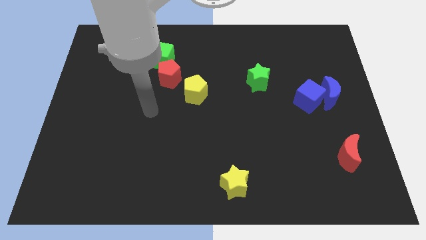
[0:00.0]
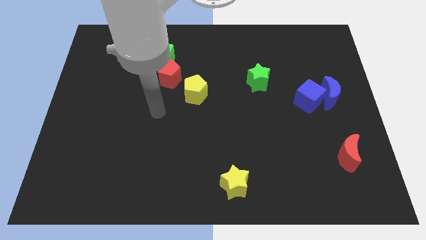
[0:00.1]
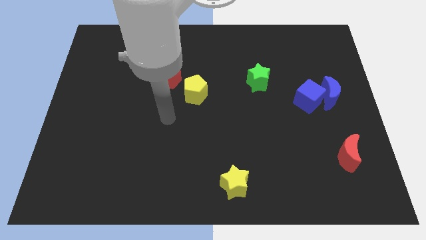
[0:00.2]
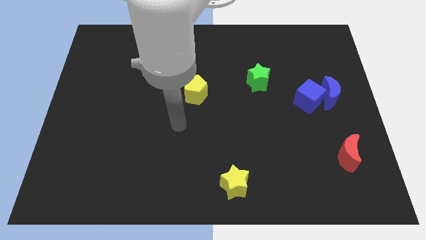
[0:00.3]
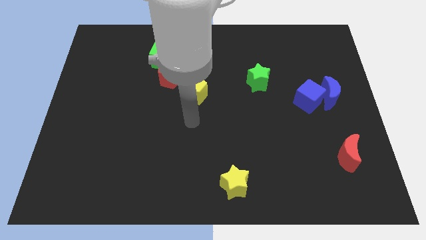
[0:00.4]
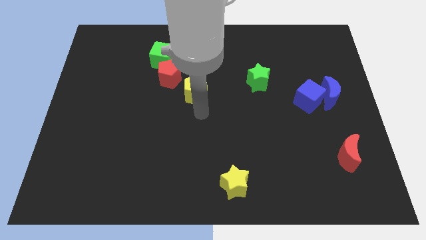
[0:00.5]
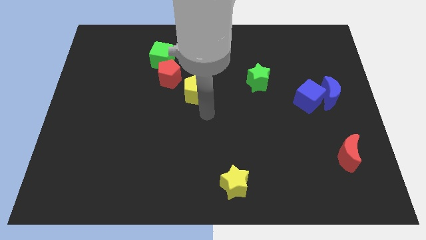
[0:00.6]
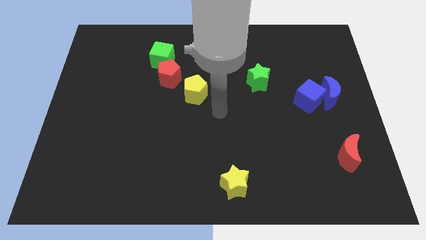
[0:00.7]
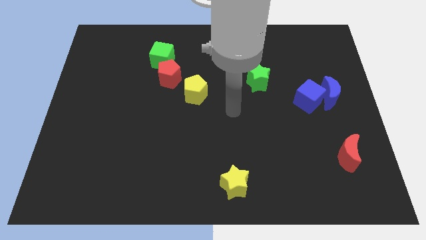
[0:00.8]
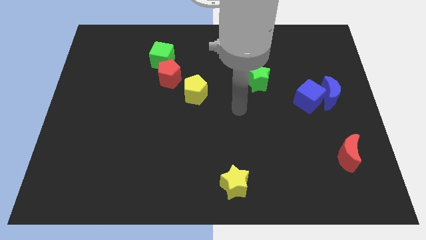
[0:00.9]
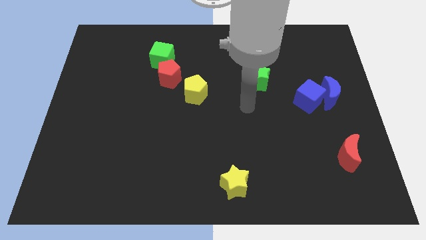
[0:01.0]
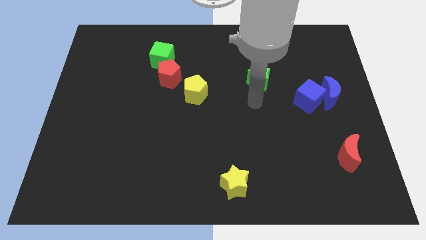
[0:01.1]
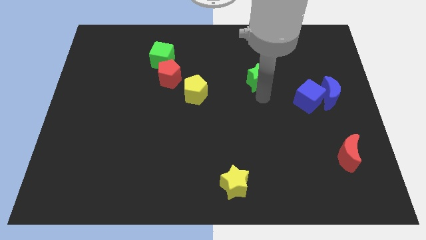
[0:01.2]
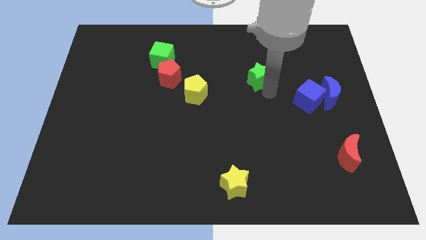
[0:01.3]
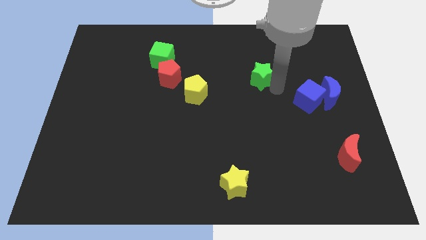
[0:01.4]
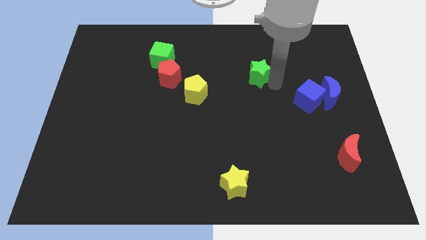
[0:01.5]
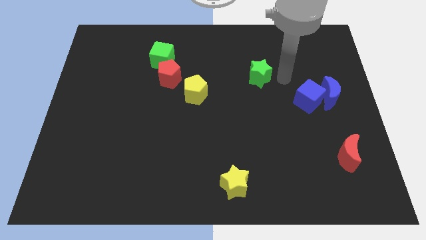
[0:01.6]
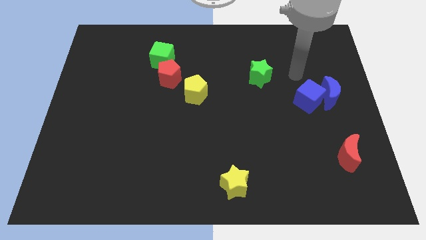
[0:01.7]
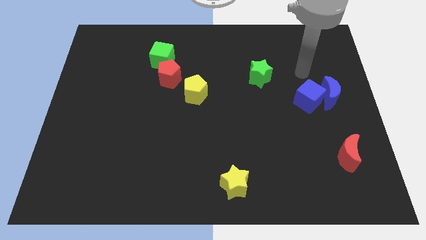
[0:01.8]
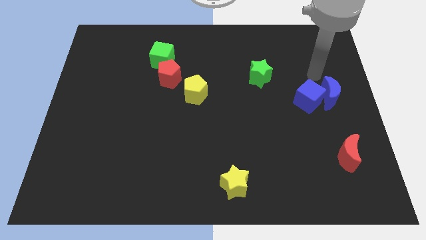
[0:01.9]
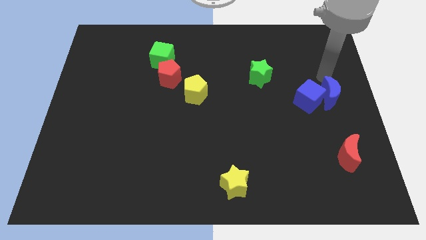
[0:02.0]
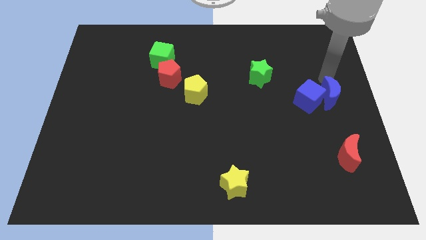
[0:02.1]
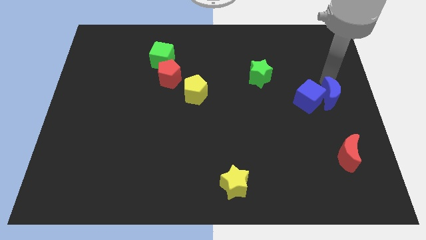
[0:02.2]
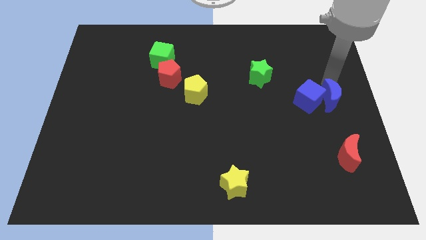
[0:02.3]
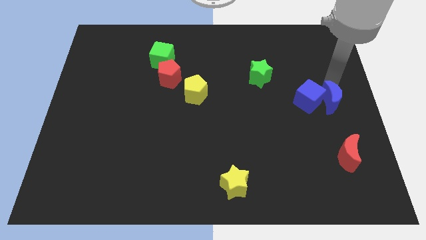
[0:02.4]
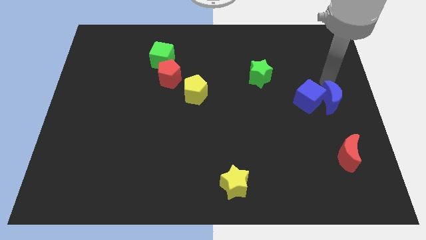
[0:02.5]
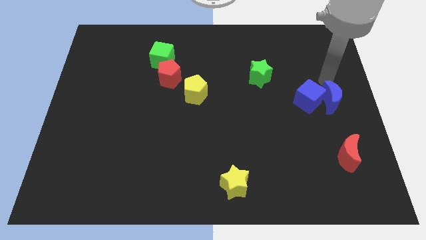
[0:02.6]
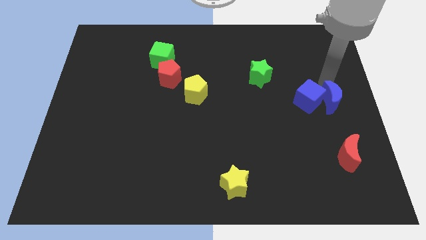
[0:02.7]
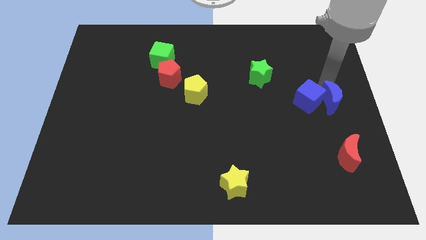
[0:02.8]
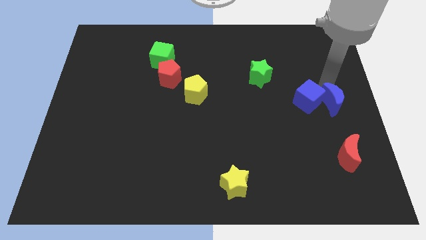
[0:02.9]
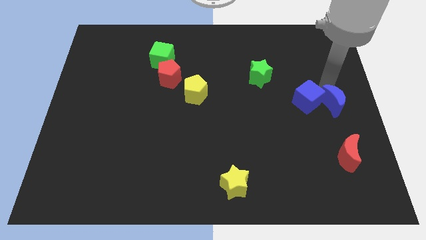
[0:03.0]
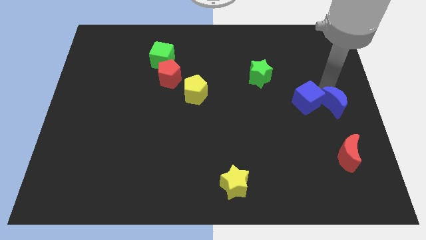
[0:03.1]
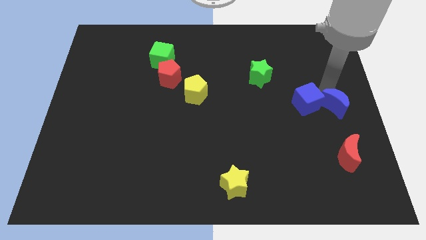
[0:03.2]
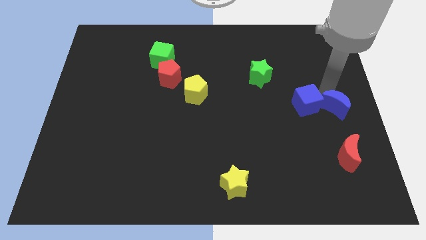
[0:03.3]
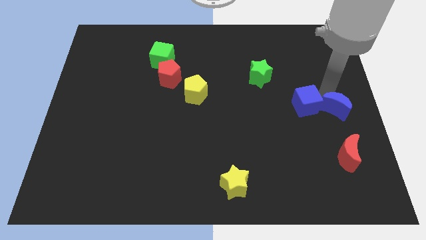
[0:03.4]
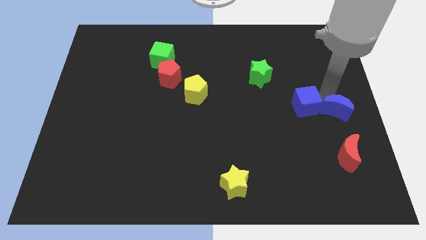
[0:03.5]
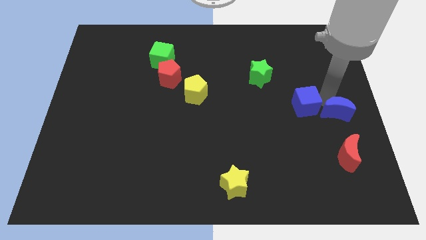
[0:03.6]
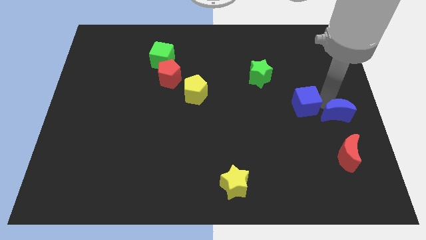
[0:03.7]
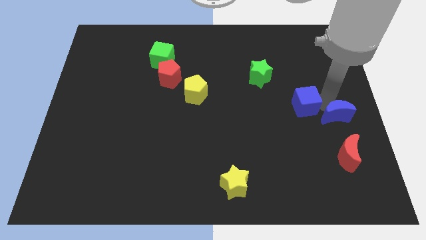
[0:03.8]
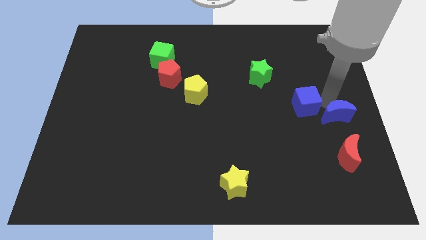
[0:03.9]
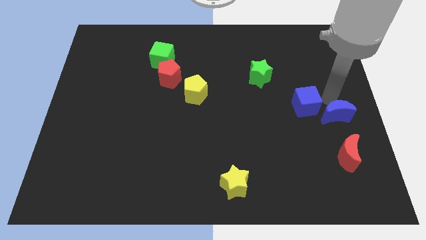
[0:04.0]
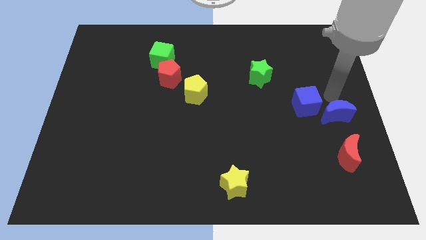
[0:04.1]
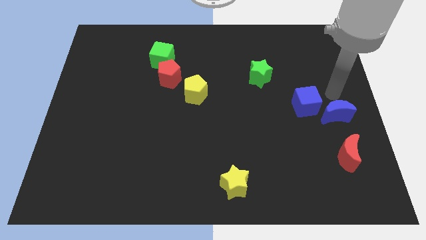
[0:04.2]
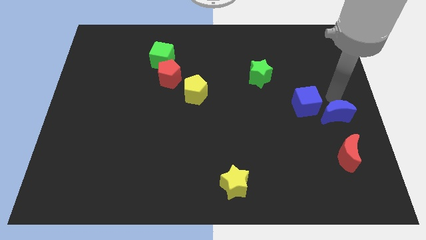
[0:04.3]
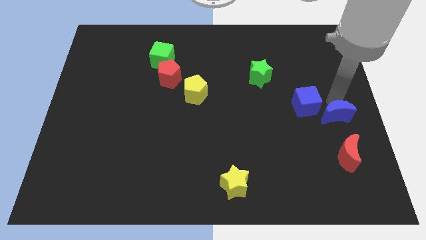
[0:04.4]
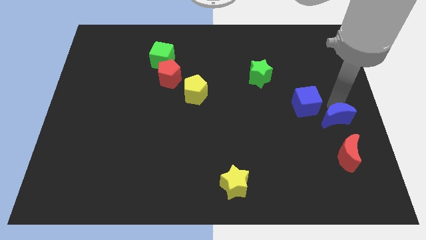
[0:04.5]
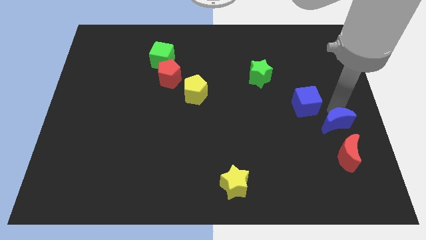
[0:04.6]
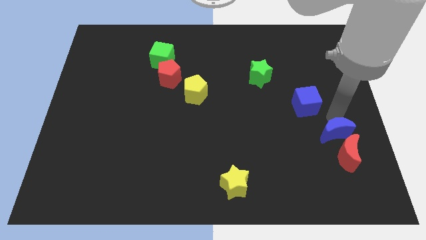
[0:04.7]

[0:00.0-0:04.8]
slide the blue moon close to the red moon

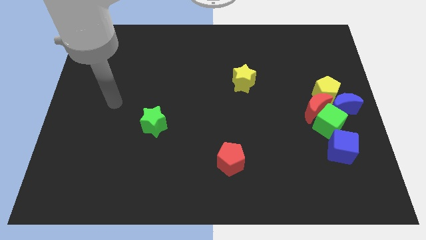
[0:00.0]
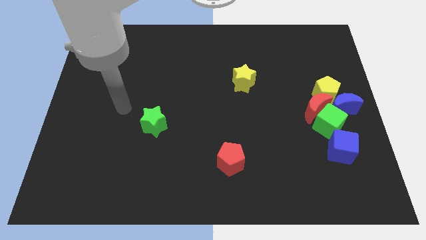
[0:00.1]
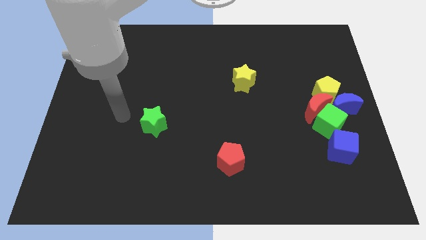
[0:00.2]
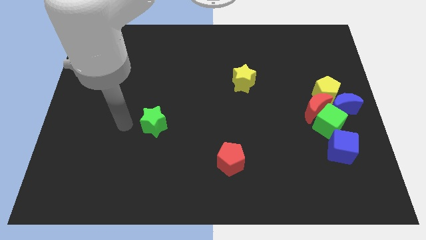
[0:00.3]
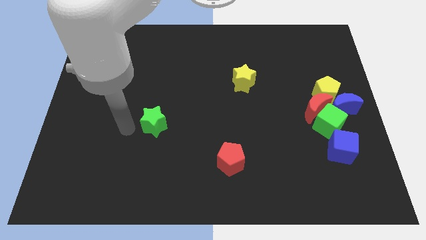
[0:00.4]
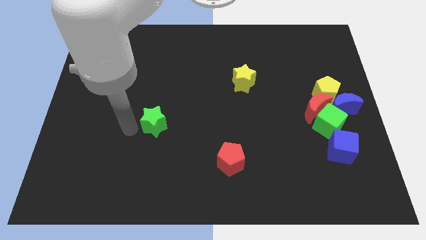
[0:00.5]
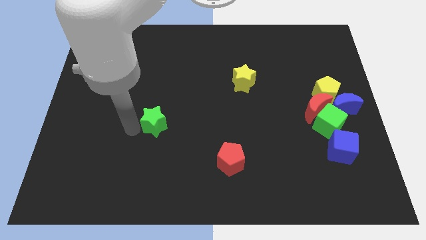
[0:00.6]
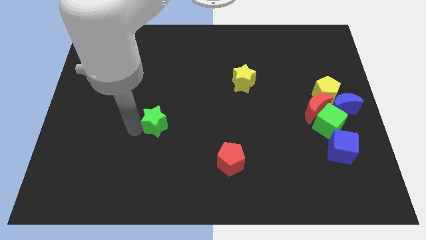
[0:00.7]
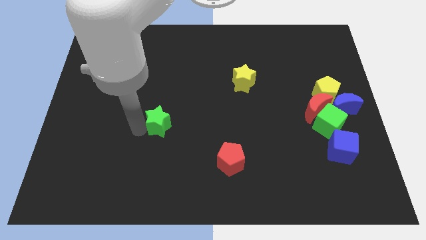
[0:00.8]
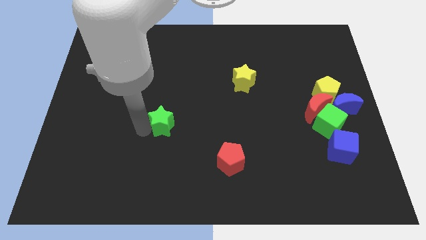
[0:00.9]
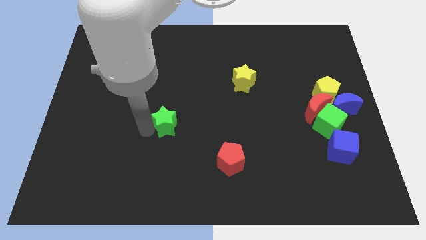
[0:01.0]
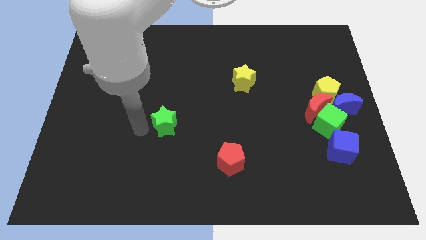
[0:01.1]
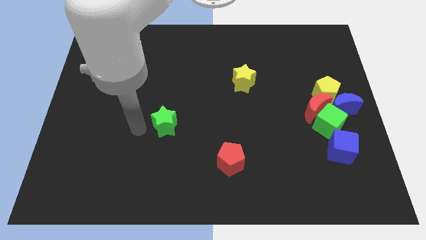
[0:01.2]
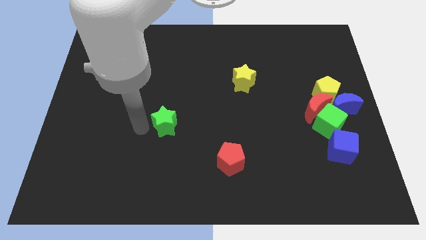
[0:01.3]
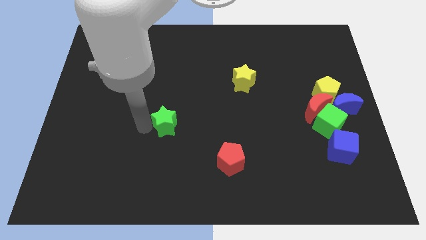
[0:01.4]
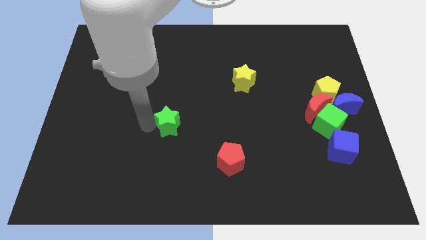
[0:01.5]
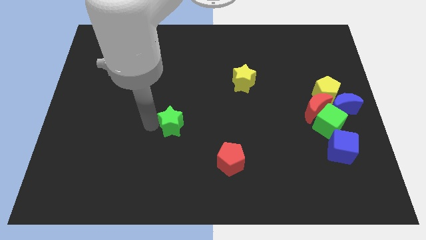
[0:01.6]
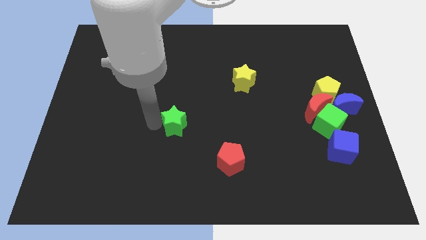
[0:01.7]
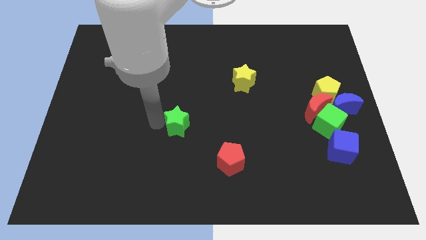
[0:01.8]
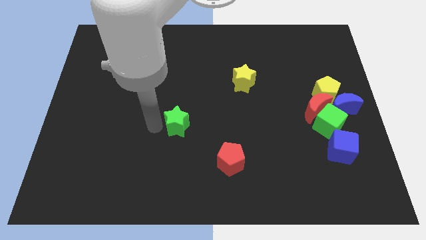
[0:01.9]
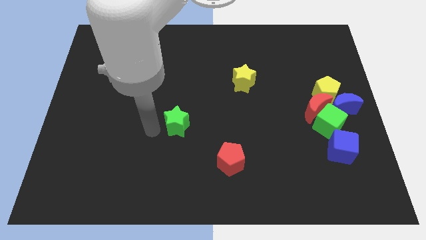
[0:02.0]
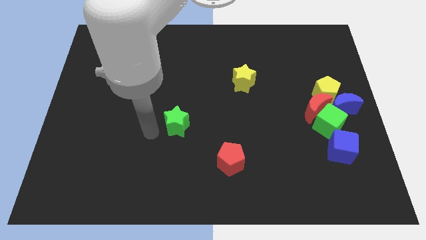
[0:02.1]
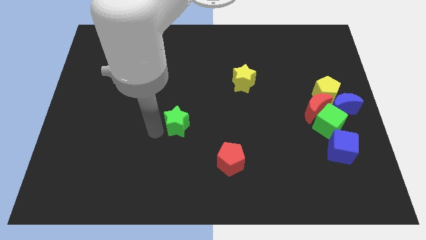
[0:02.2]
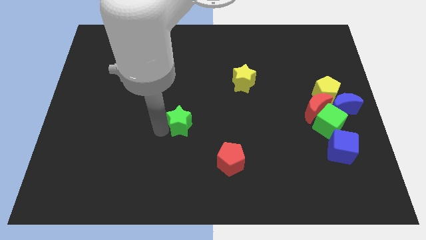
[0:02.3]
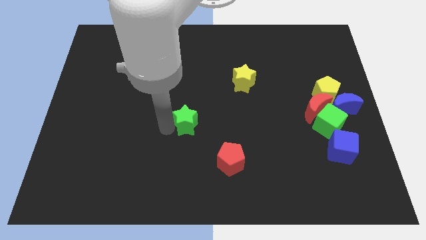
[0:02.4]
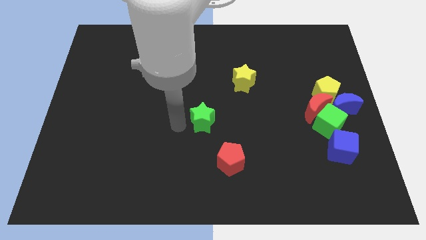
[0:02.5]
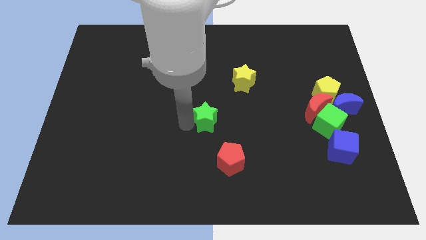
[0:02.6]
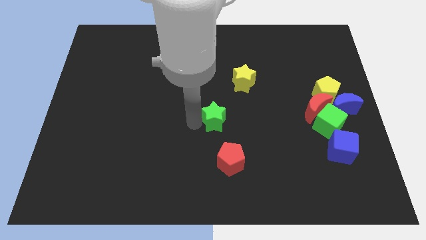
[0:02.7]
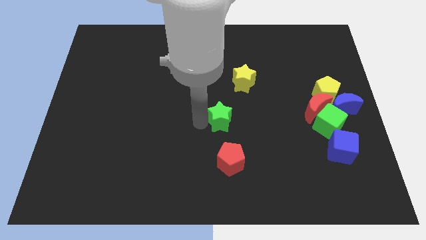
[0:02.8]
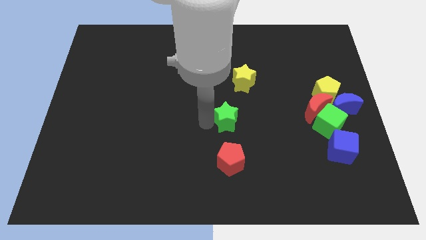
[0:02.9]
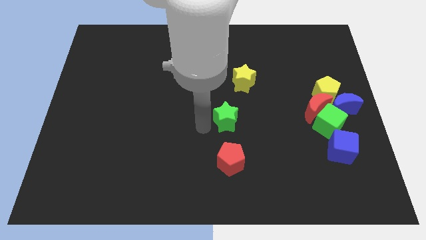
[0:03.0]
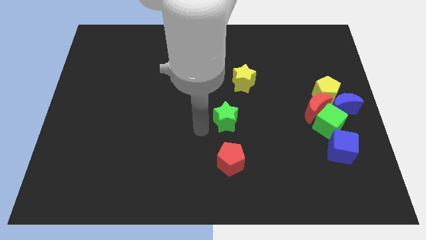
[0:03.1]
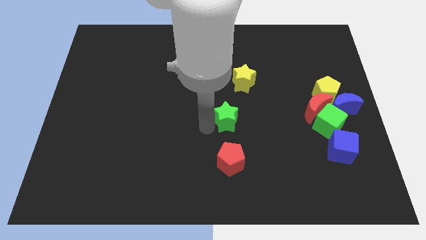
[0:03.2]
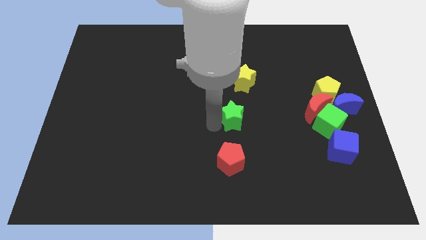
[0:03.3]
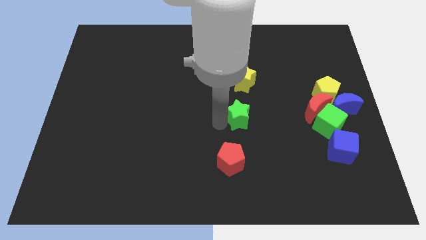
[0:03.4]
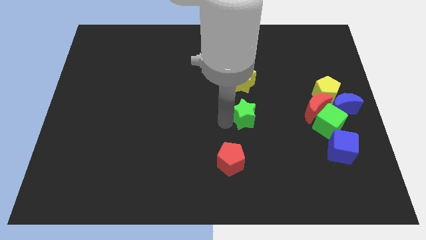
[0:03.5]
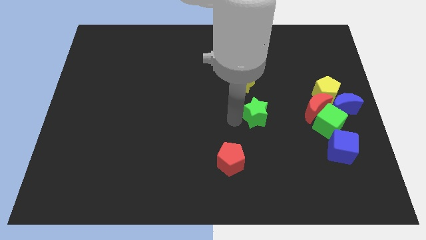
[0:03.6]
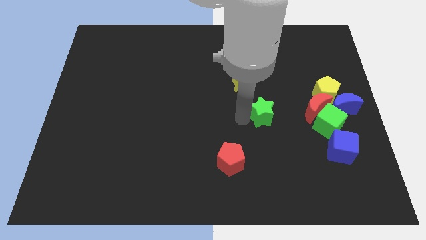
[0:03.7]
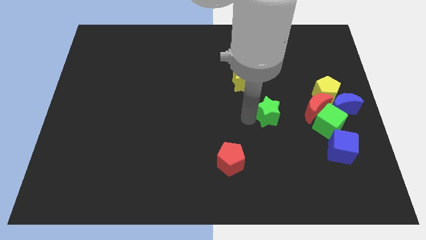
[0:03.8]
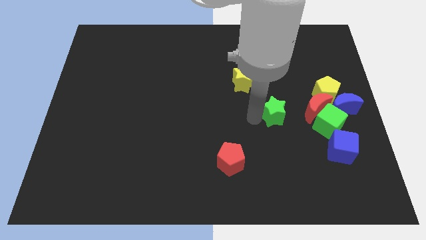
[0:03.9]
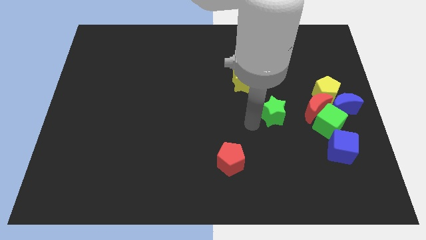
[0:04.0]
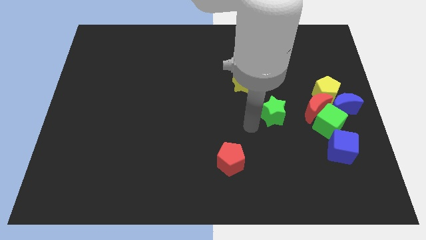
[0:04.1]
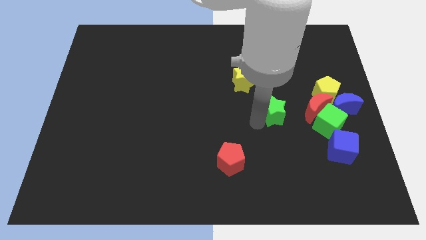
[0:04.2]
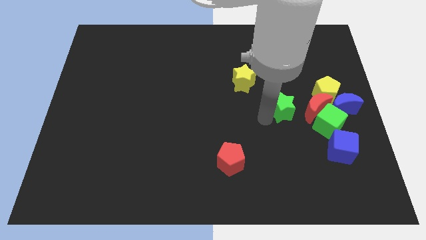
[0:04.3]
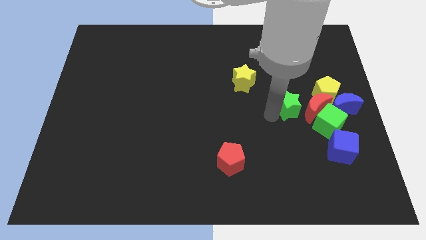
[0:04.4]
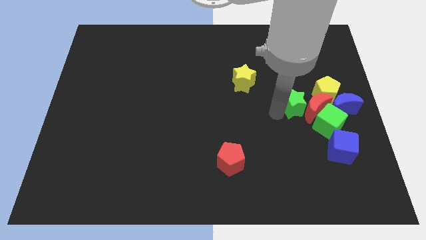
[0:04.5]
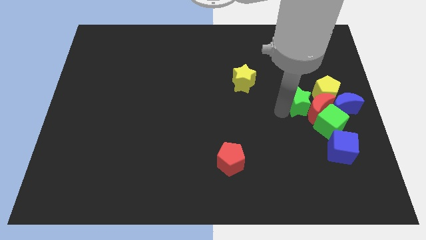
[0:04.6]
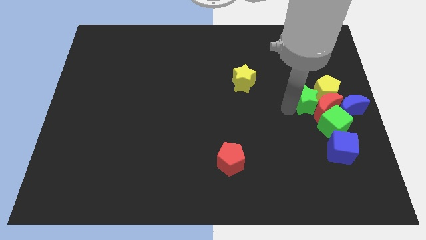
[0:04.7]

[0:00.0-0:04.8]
push the green star close to the yellow pentagon
